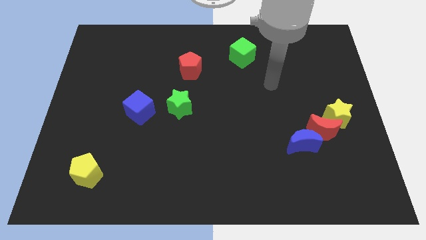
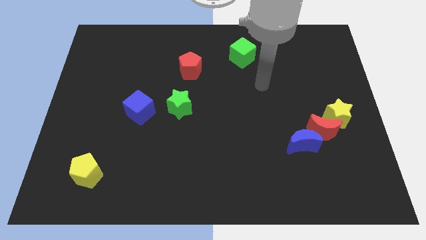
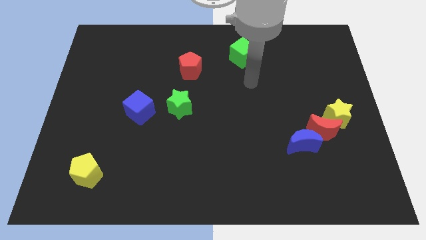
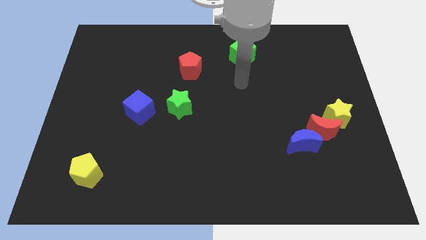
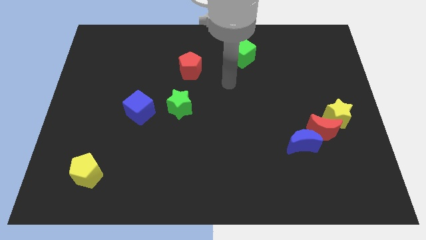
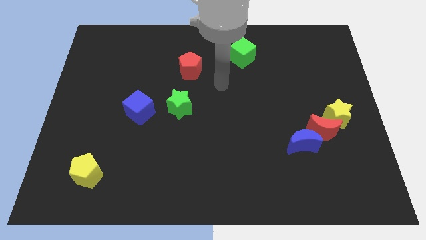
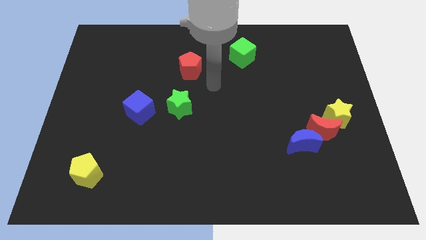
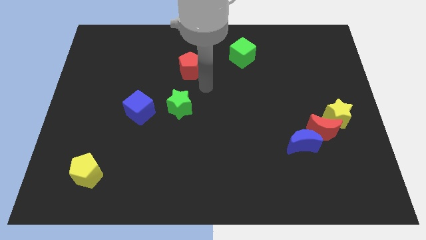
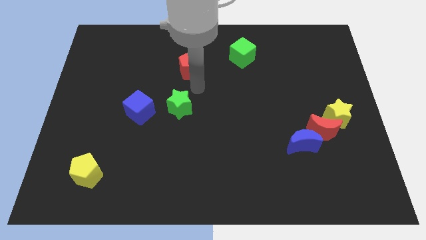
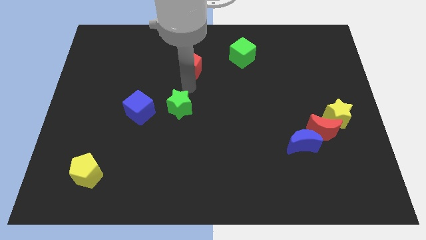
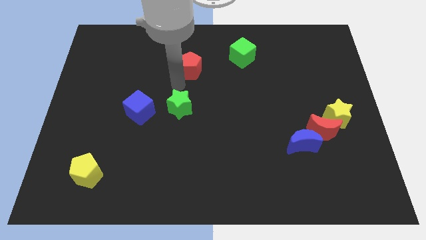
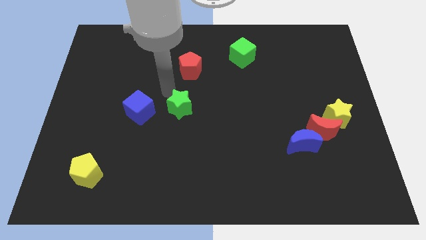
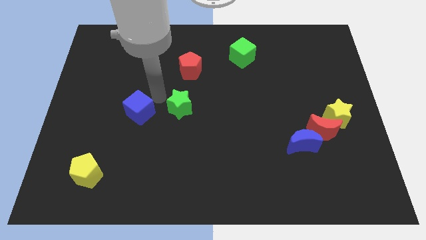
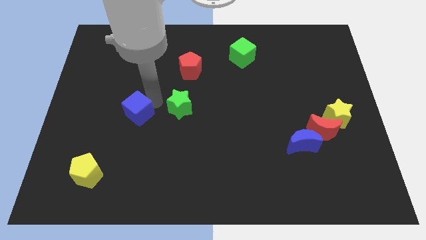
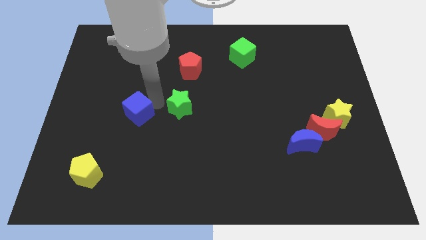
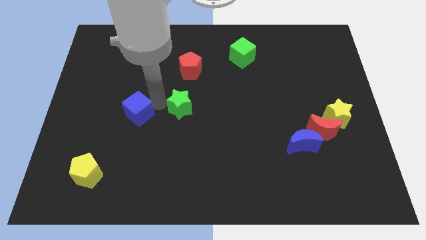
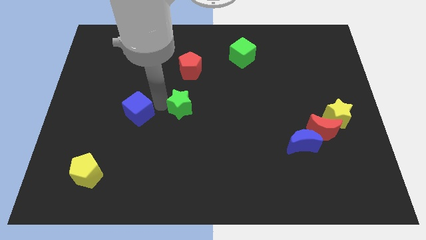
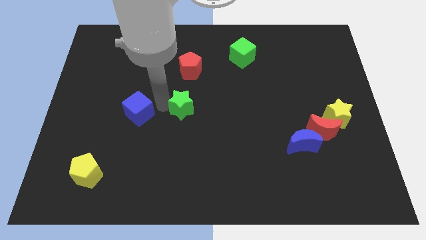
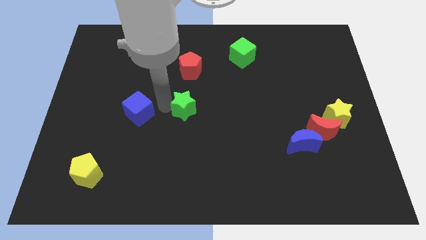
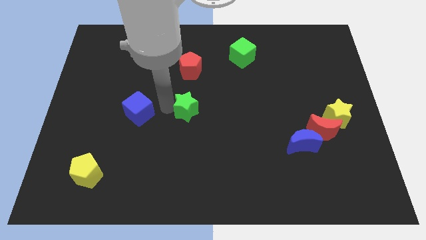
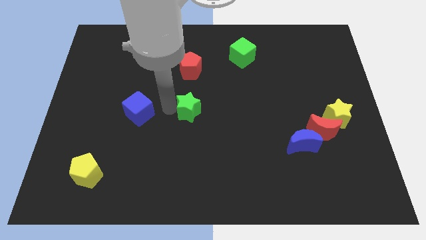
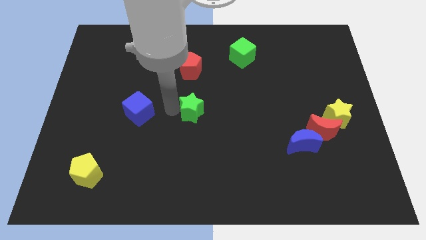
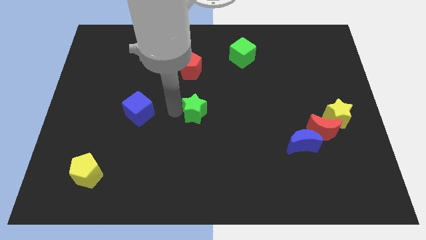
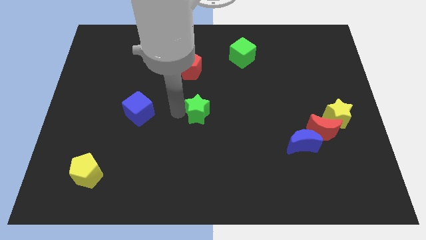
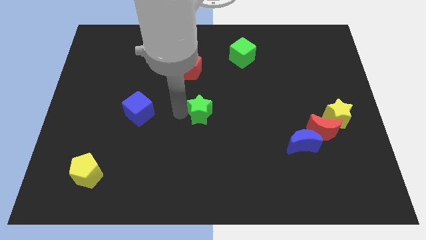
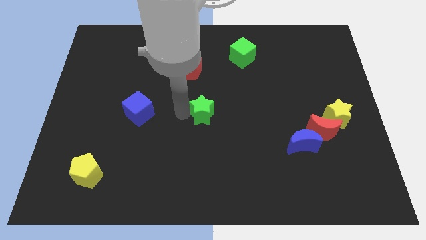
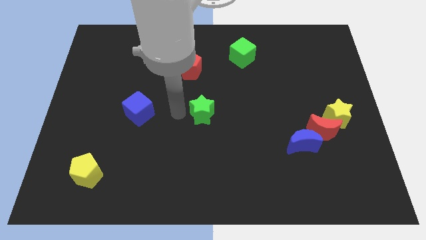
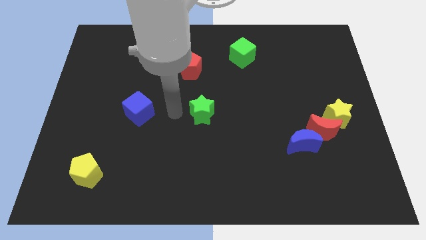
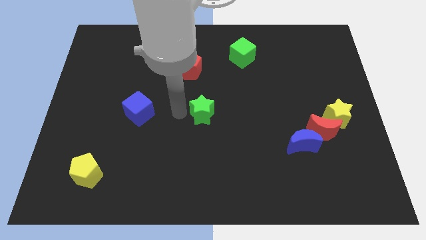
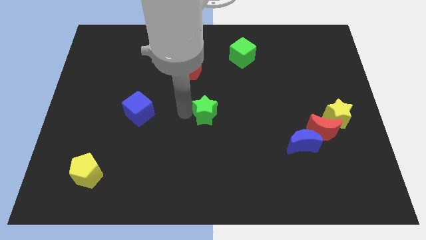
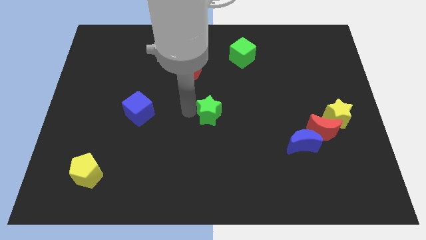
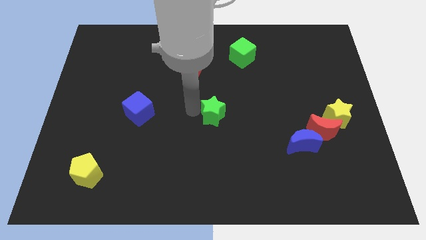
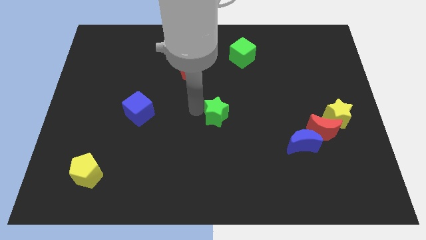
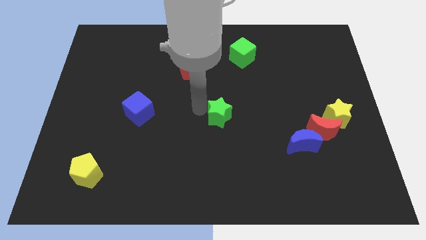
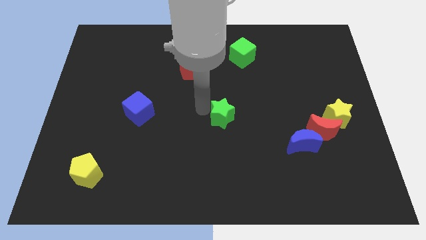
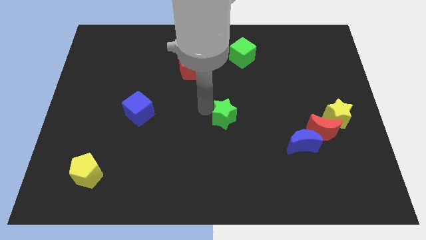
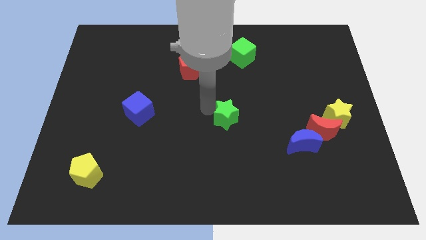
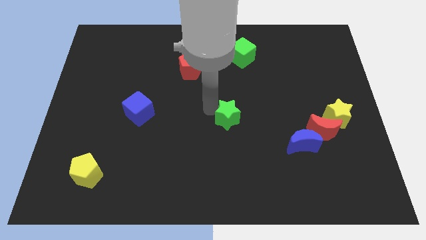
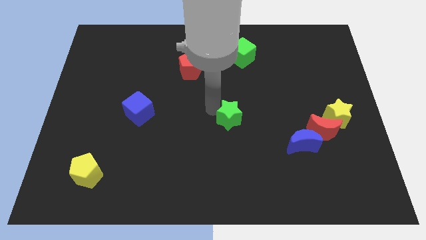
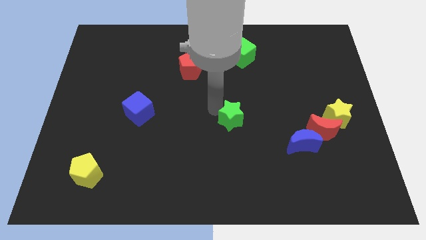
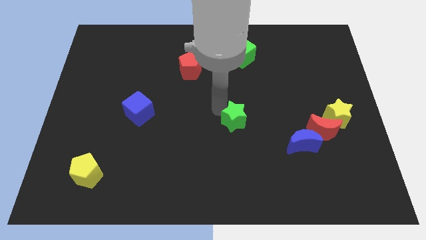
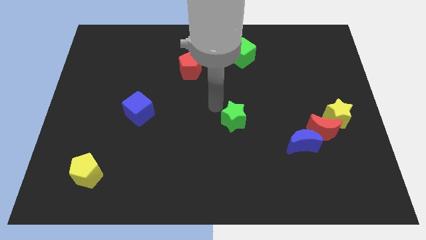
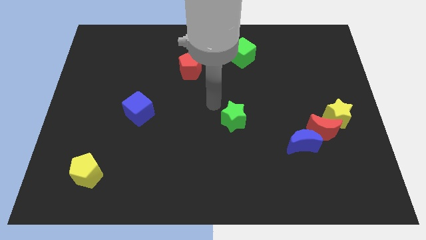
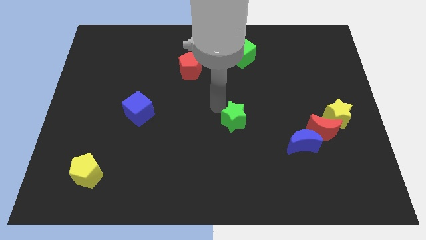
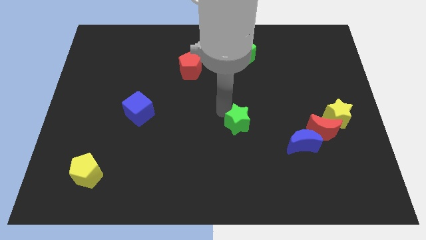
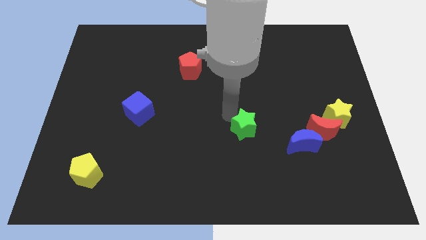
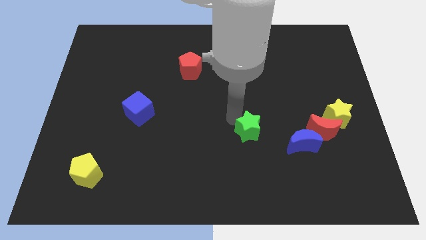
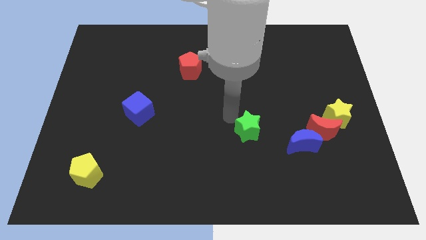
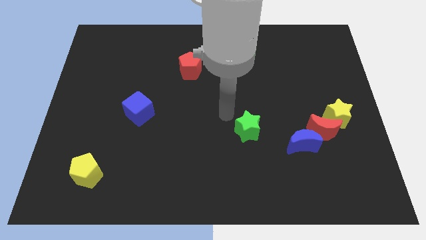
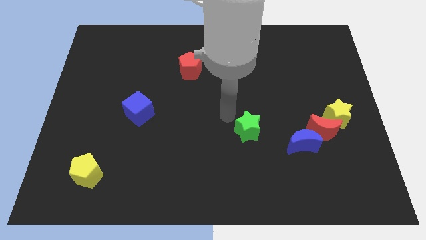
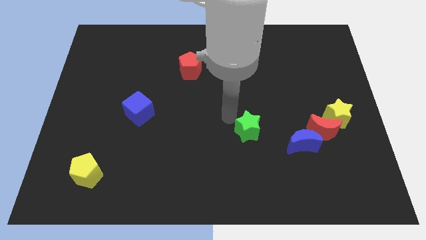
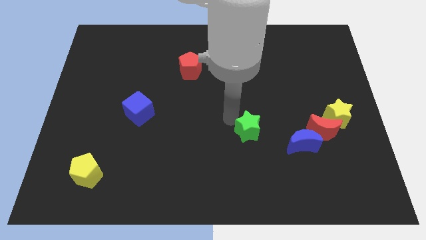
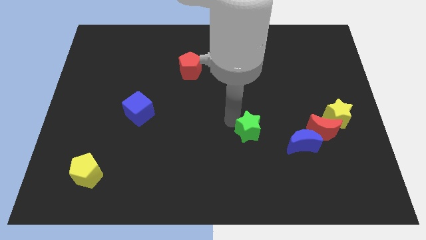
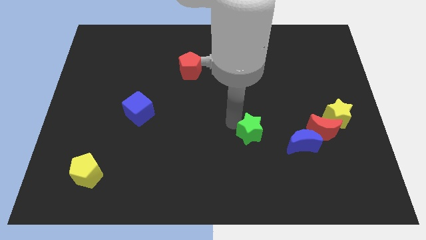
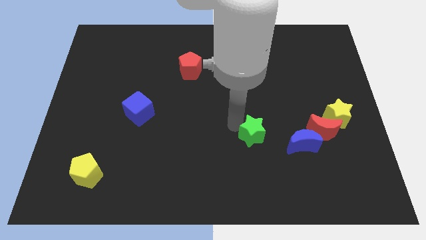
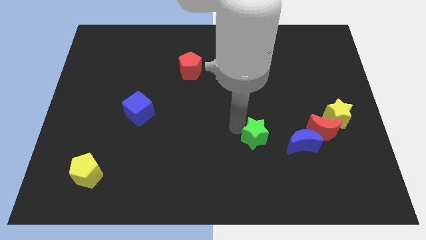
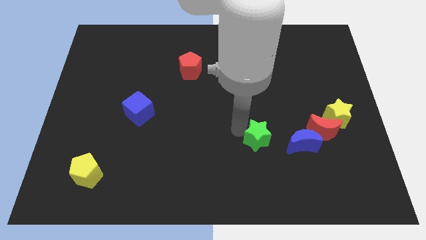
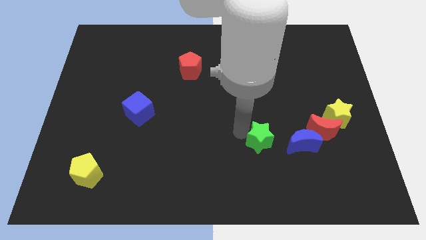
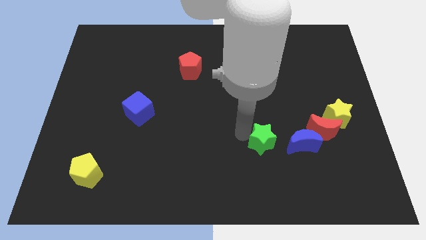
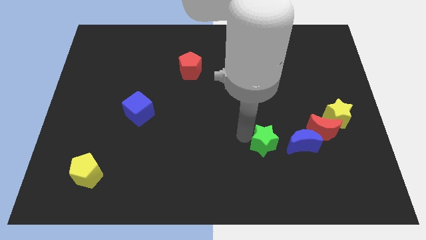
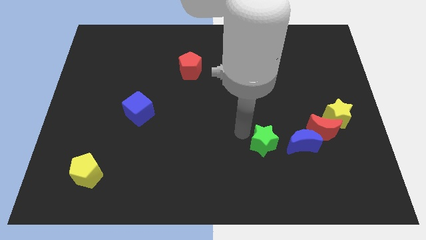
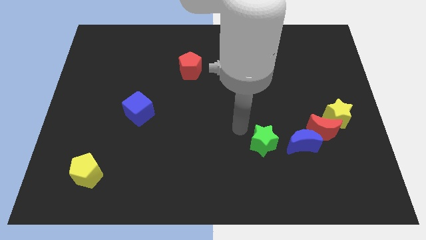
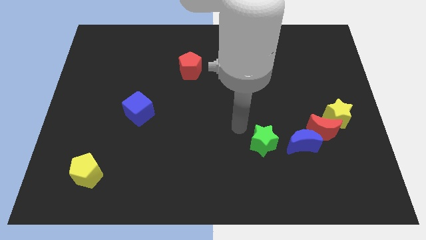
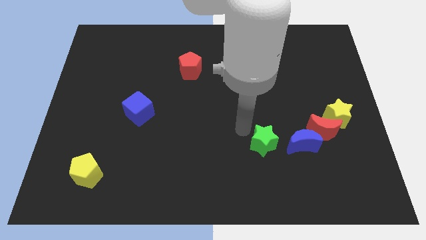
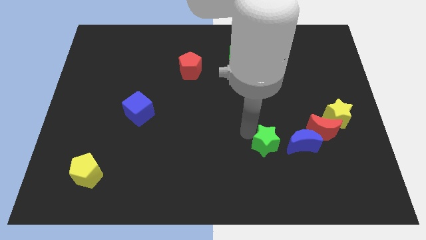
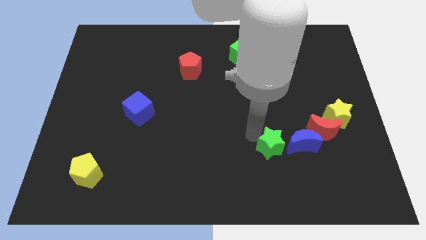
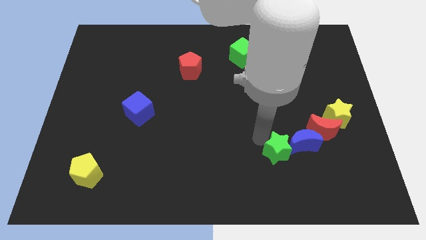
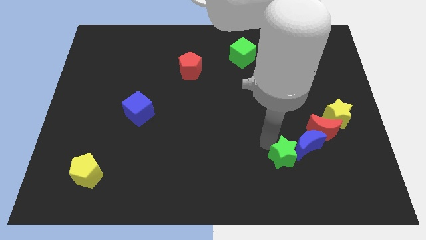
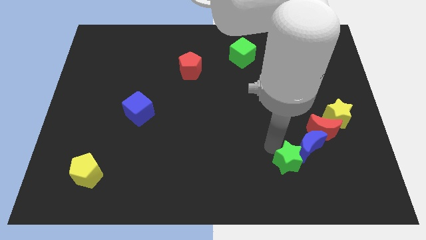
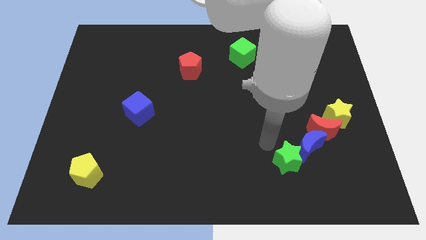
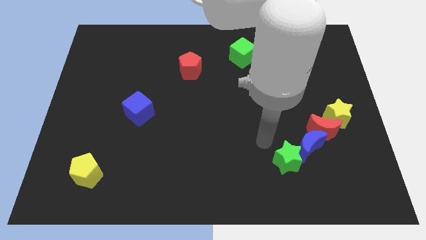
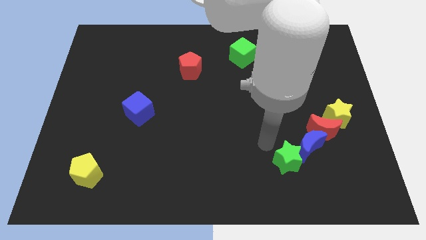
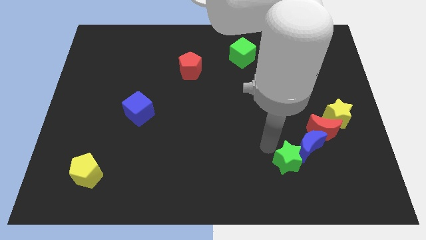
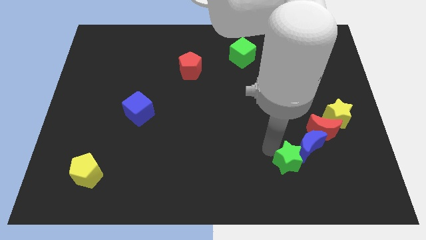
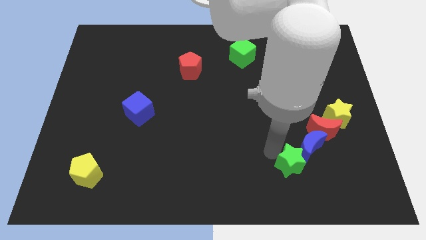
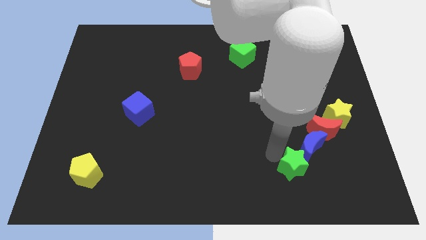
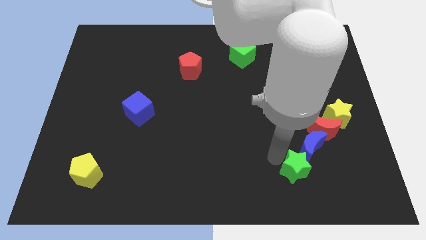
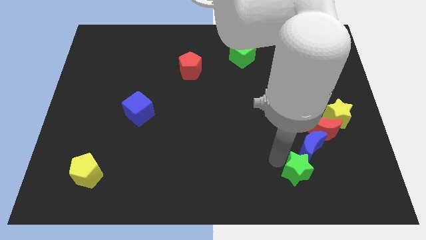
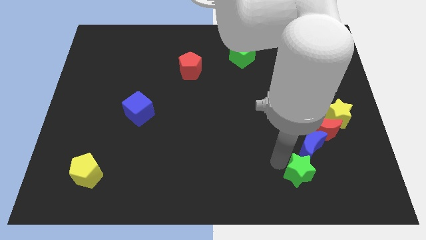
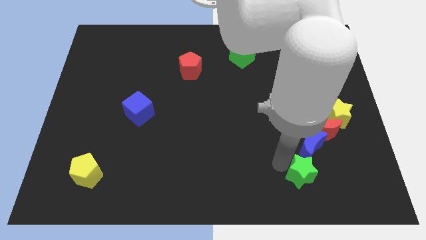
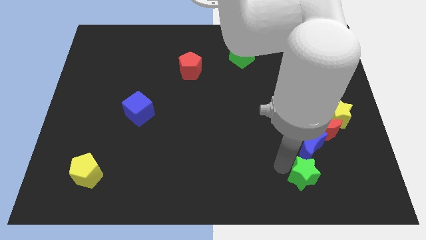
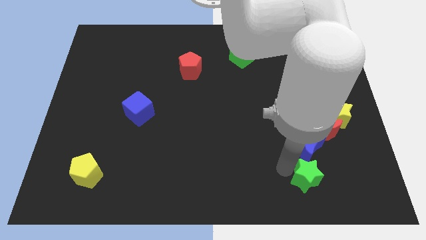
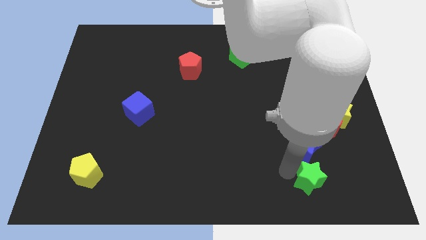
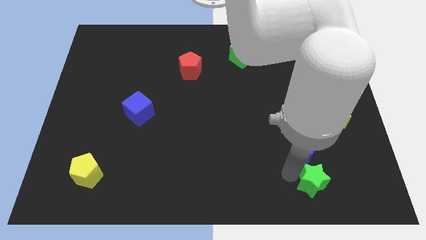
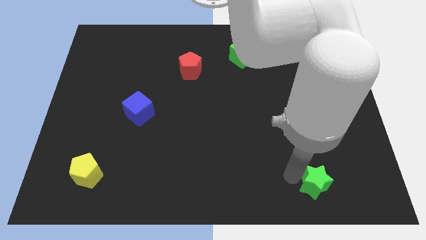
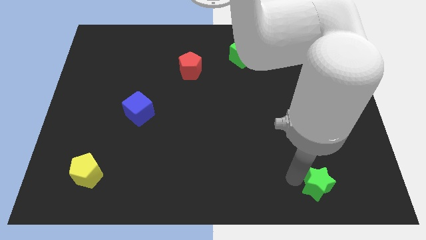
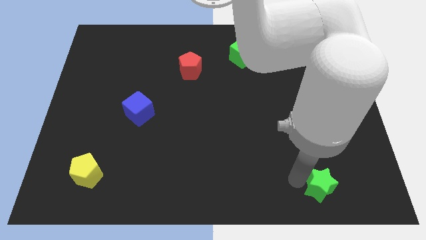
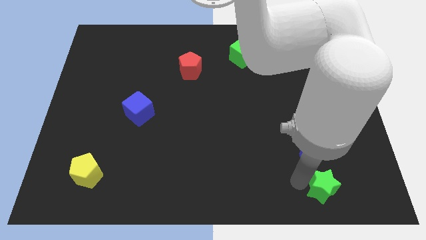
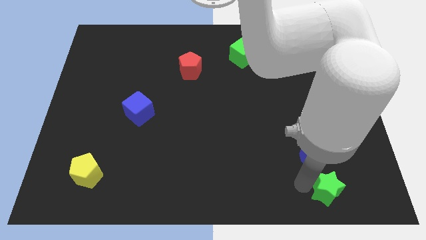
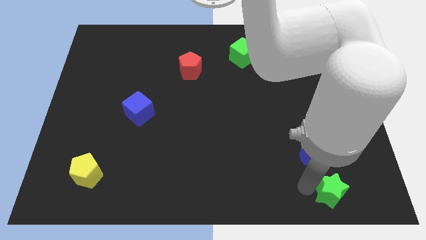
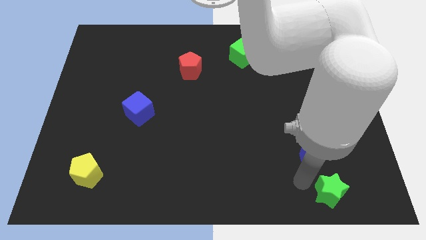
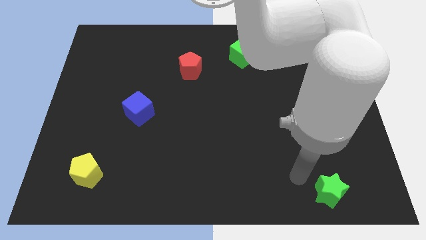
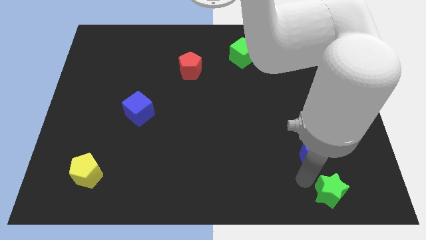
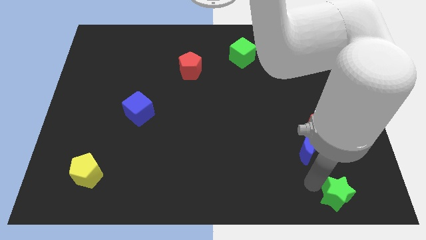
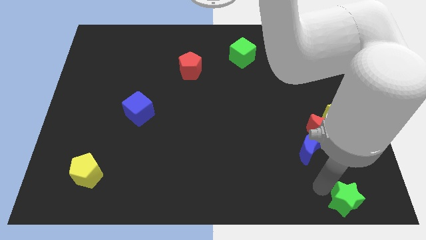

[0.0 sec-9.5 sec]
put the green star to the bottom right of the board
